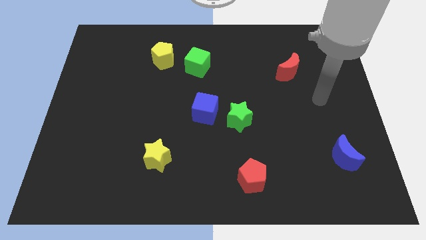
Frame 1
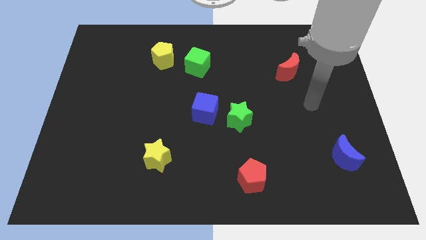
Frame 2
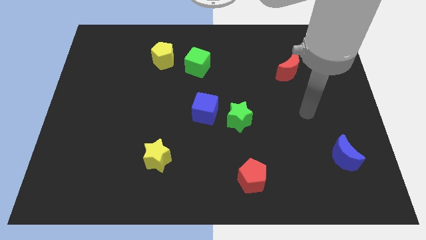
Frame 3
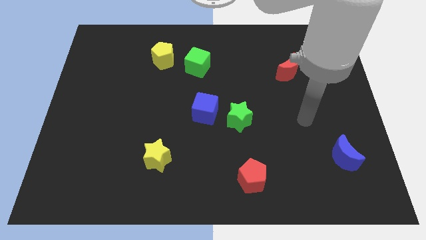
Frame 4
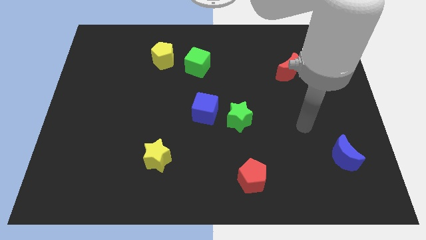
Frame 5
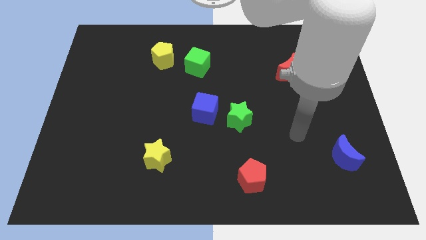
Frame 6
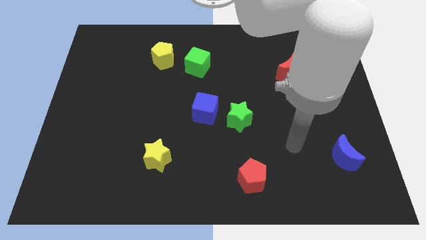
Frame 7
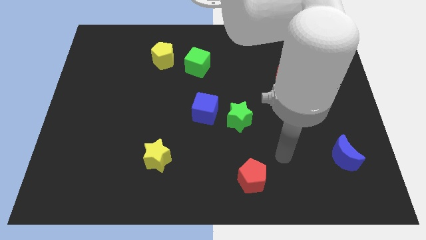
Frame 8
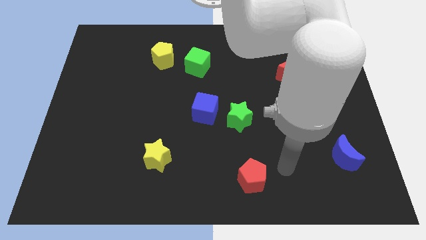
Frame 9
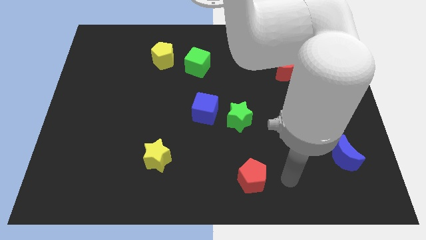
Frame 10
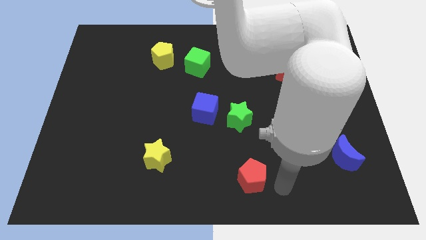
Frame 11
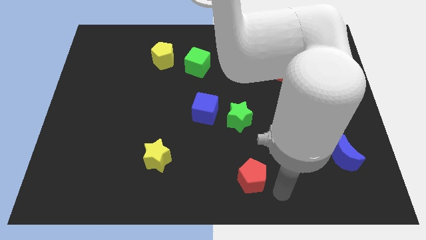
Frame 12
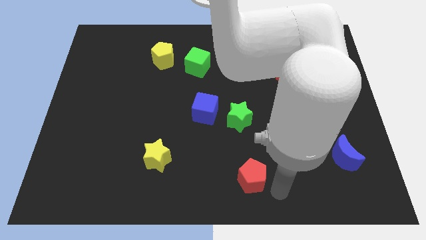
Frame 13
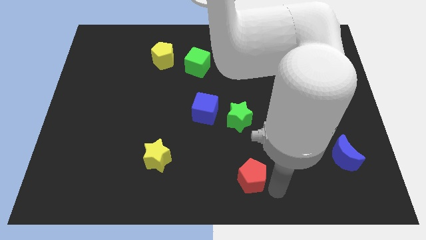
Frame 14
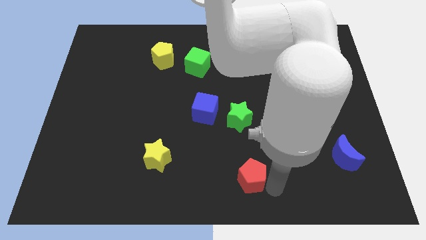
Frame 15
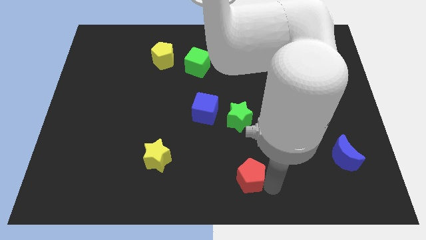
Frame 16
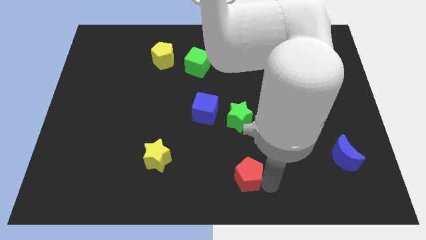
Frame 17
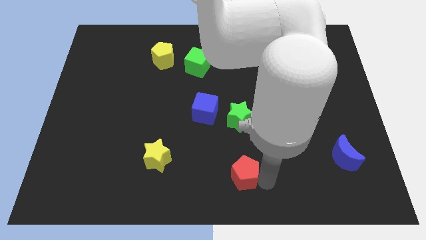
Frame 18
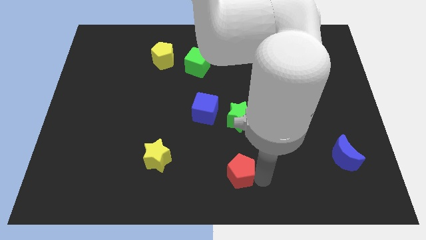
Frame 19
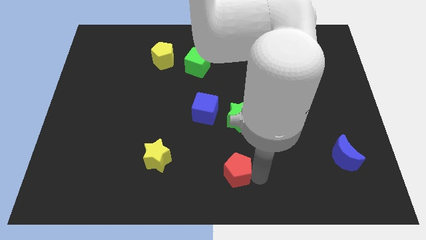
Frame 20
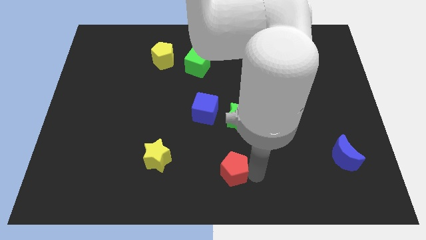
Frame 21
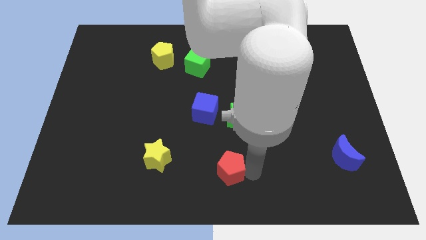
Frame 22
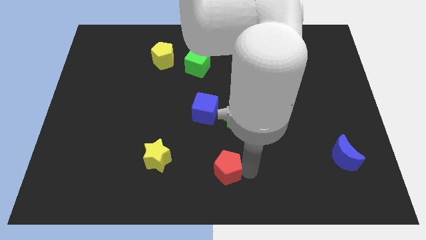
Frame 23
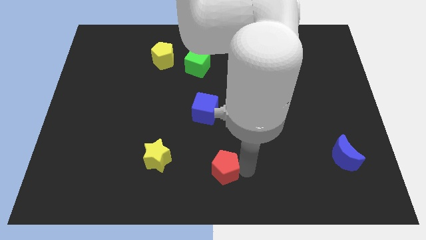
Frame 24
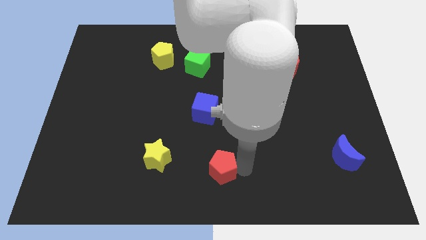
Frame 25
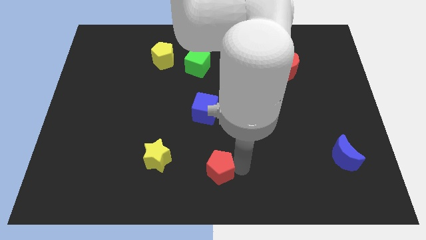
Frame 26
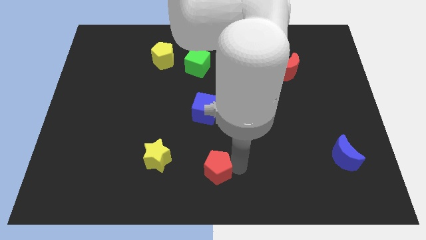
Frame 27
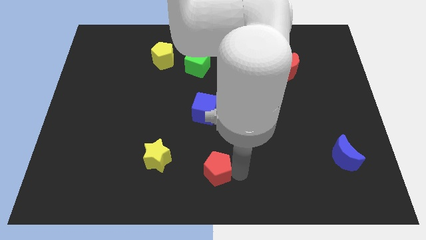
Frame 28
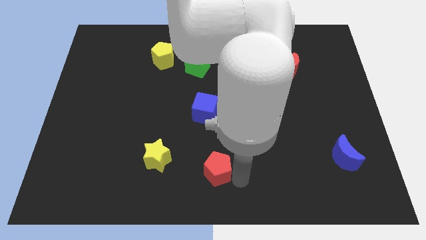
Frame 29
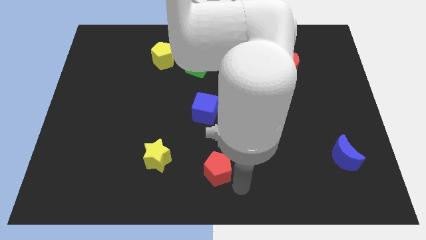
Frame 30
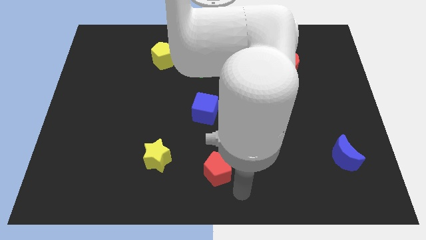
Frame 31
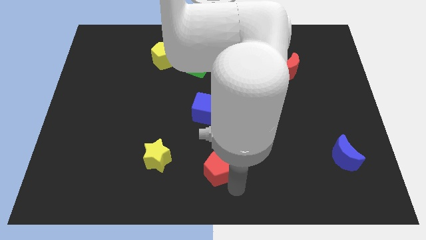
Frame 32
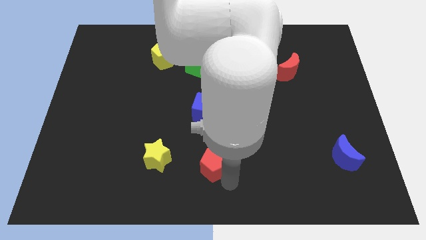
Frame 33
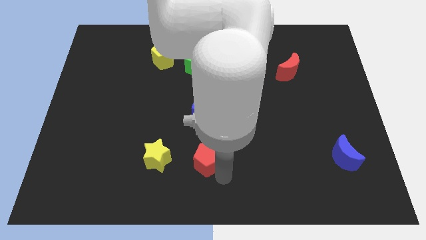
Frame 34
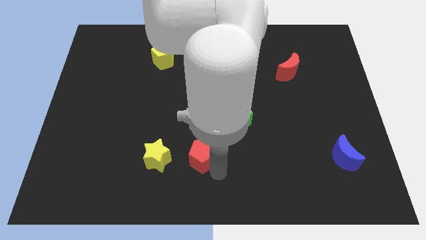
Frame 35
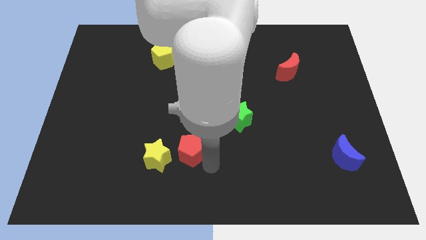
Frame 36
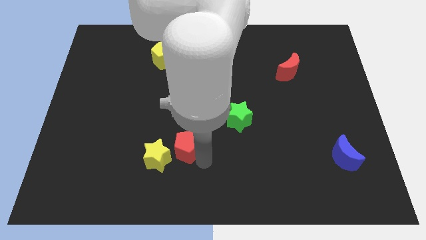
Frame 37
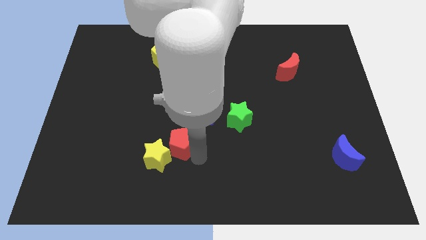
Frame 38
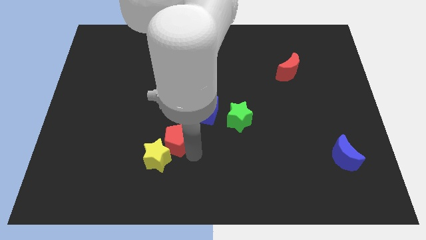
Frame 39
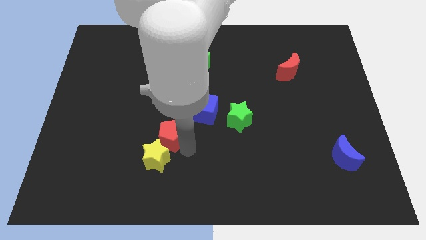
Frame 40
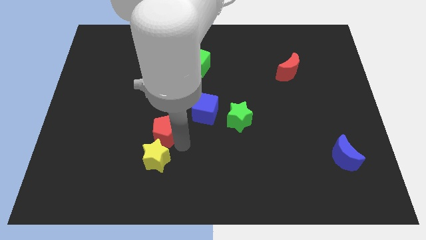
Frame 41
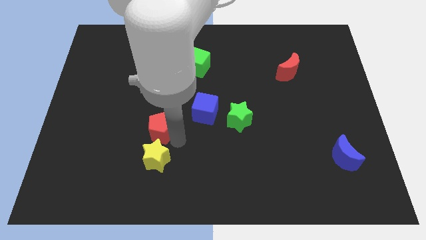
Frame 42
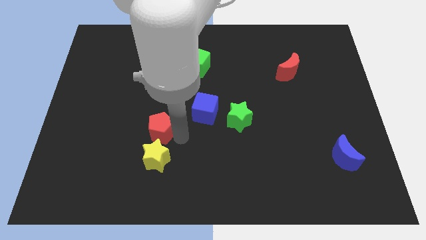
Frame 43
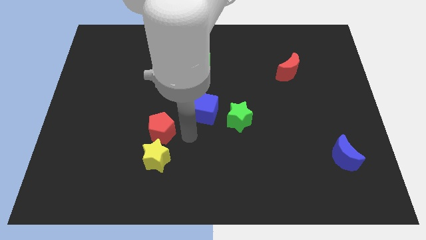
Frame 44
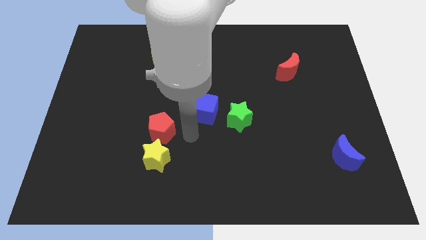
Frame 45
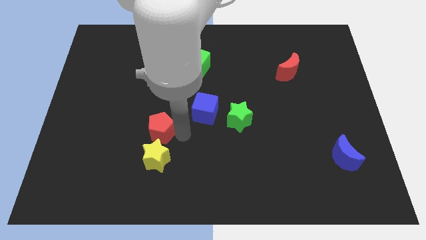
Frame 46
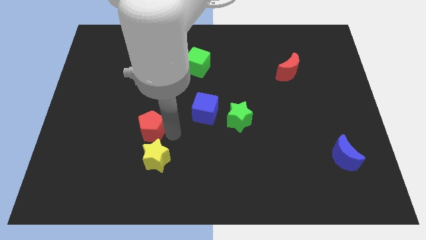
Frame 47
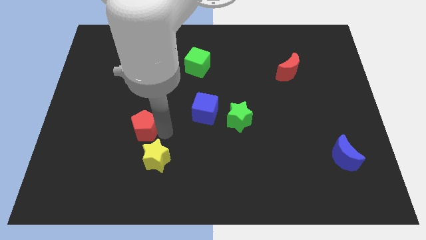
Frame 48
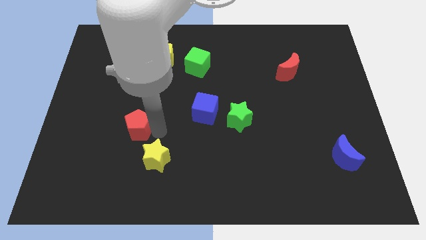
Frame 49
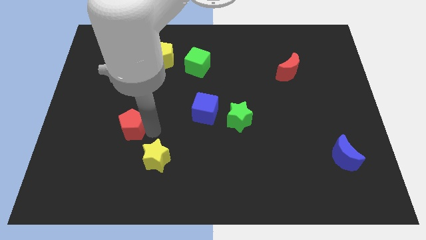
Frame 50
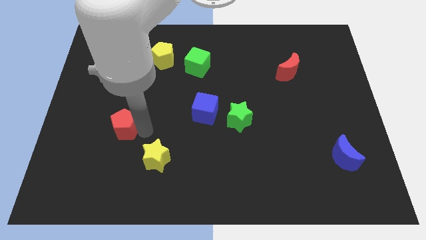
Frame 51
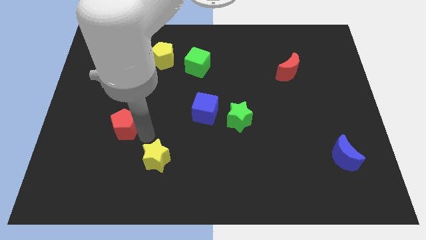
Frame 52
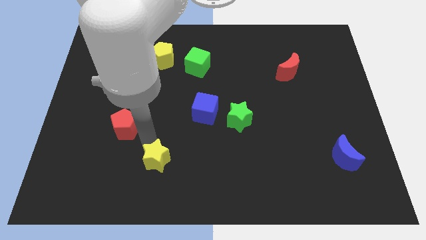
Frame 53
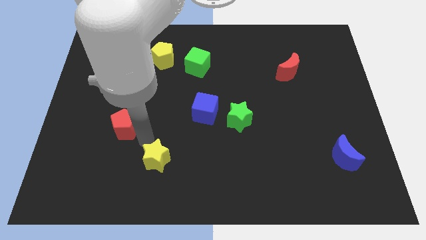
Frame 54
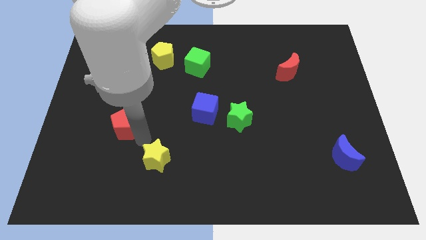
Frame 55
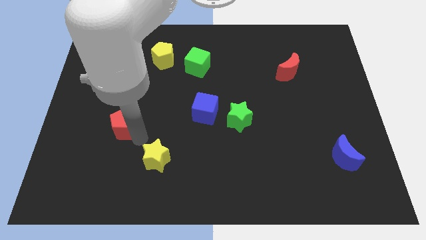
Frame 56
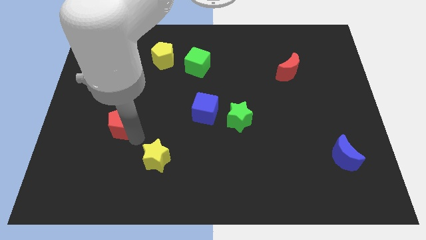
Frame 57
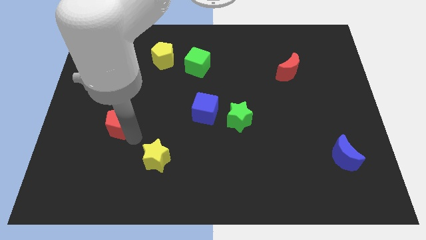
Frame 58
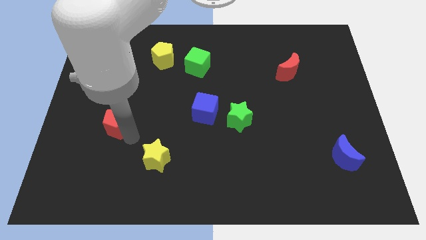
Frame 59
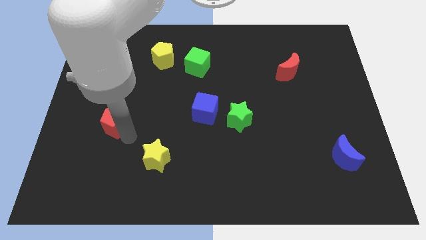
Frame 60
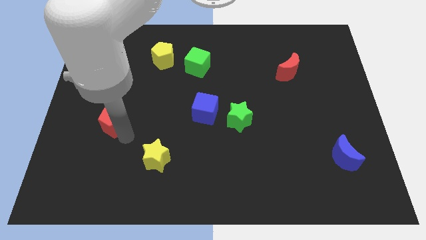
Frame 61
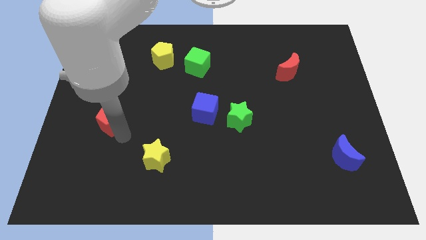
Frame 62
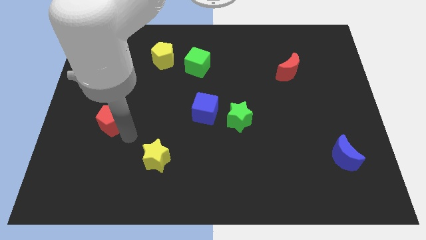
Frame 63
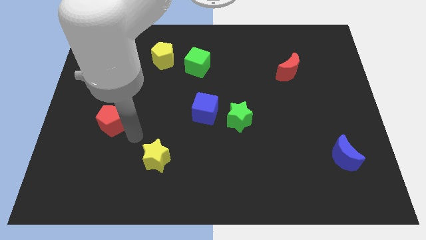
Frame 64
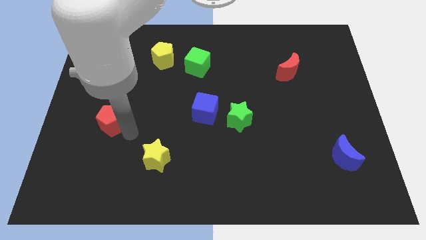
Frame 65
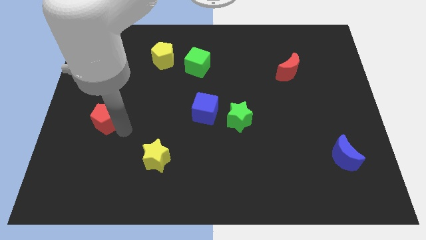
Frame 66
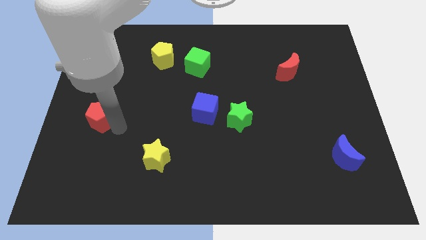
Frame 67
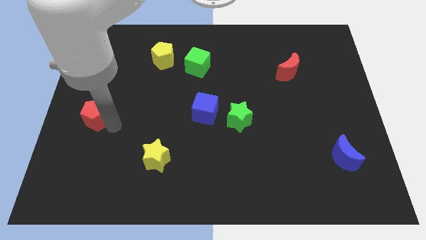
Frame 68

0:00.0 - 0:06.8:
move the red pentagon to the left side
